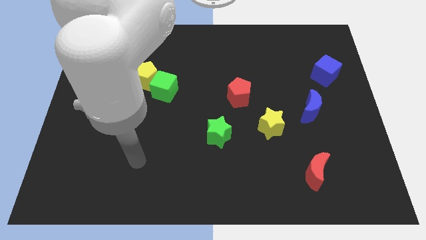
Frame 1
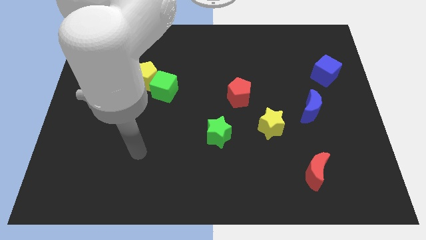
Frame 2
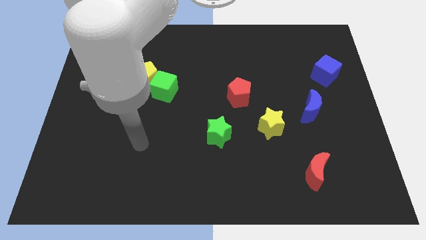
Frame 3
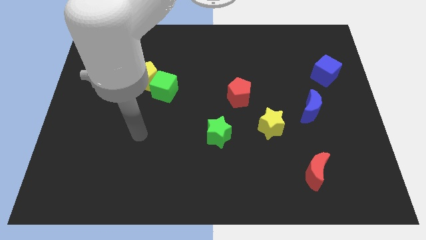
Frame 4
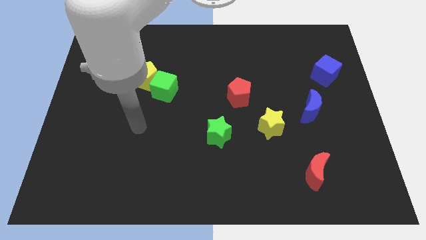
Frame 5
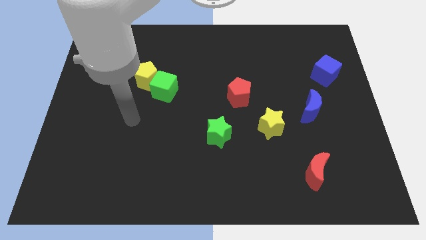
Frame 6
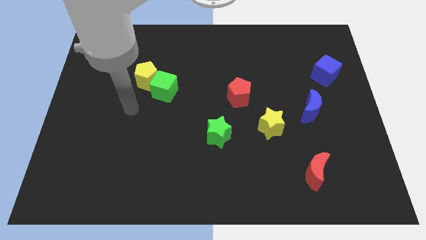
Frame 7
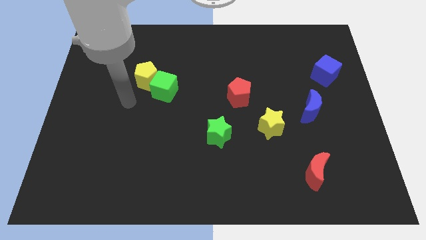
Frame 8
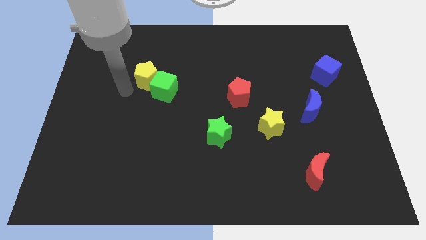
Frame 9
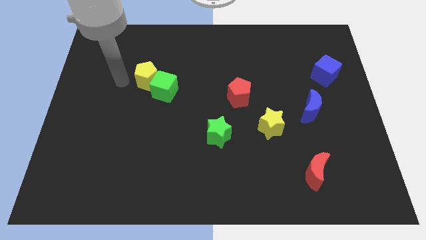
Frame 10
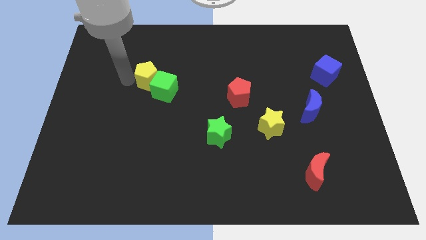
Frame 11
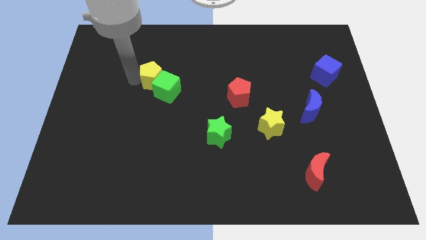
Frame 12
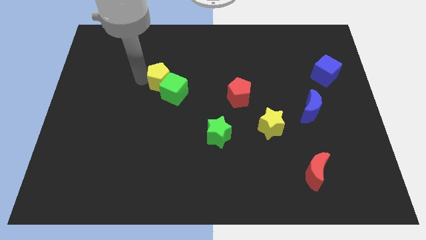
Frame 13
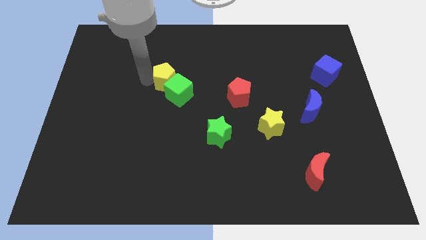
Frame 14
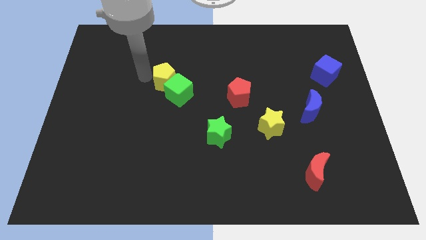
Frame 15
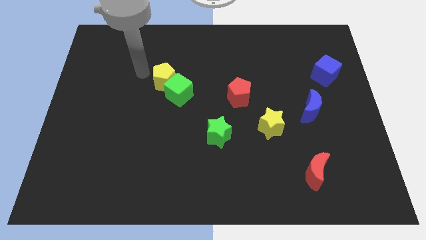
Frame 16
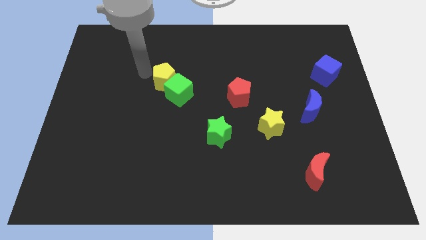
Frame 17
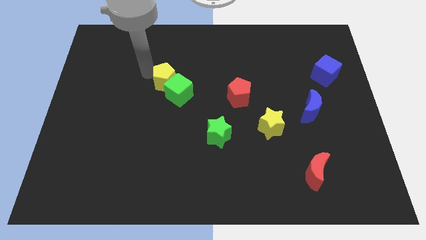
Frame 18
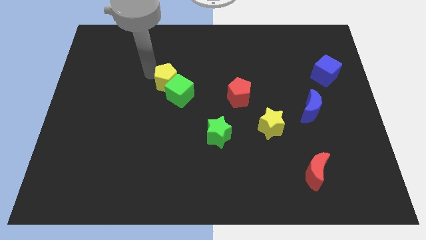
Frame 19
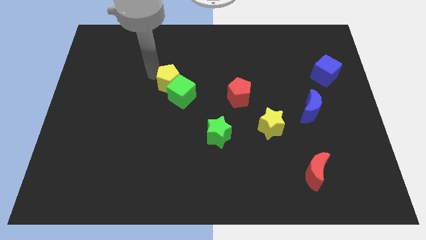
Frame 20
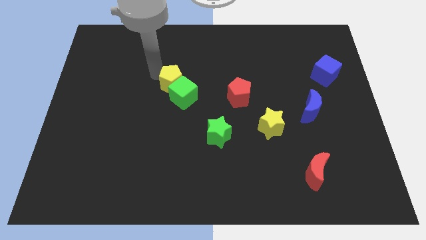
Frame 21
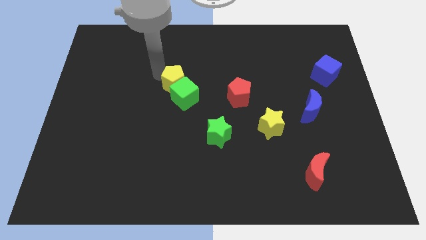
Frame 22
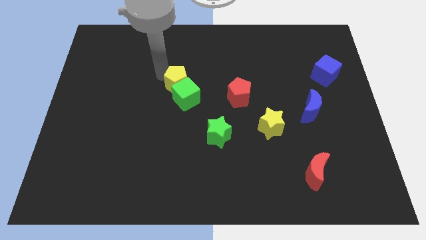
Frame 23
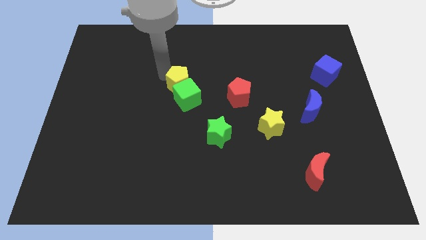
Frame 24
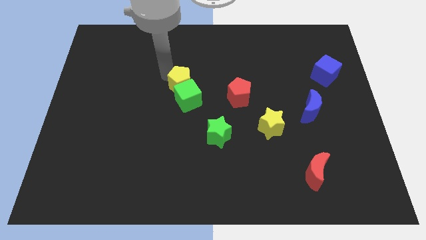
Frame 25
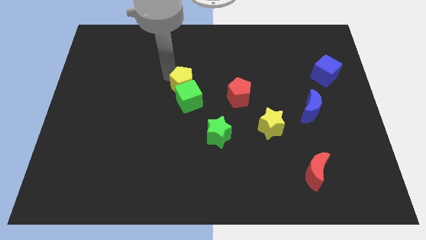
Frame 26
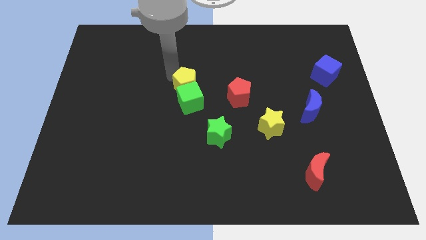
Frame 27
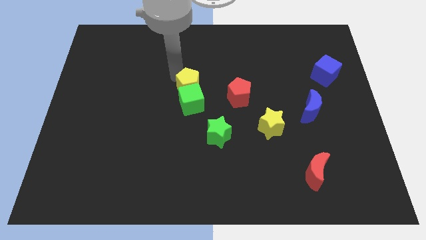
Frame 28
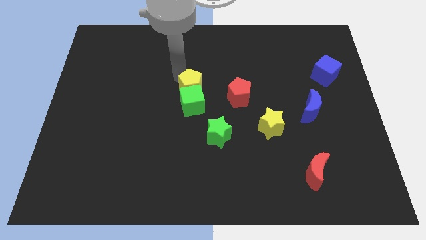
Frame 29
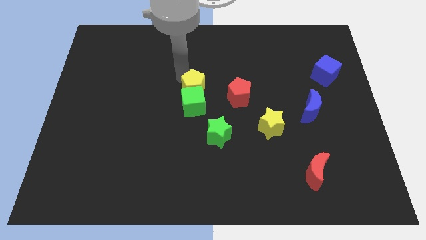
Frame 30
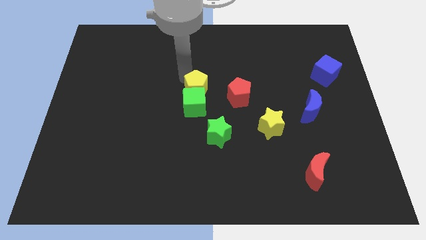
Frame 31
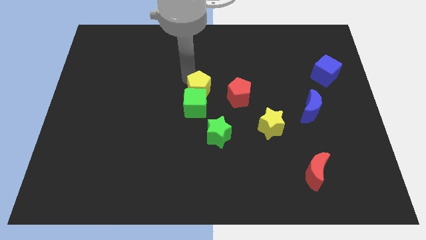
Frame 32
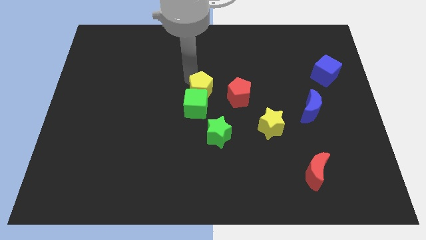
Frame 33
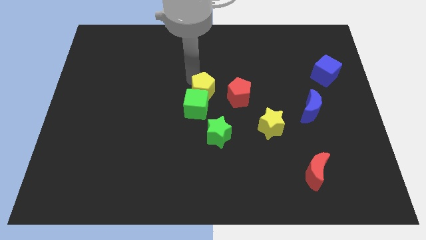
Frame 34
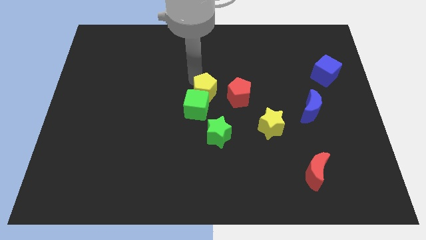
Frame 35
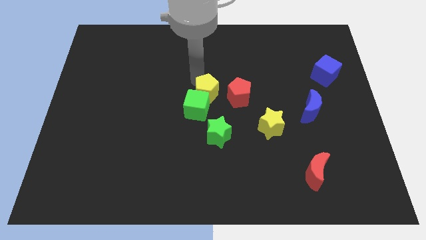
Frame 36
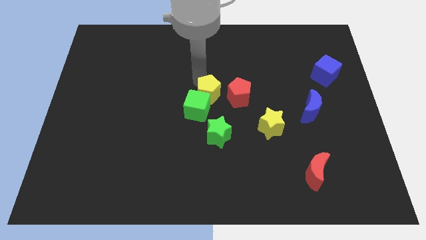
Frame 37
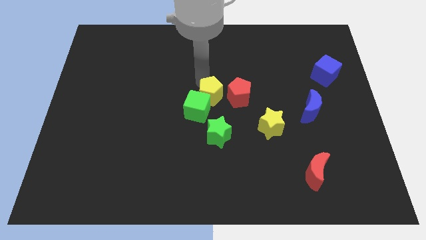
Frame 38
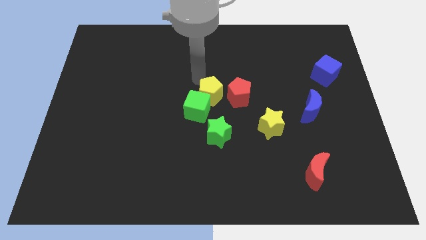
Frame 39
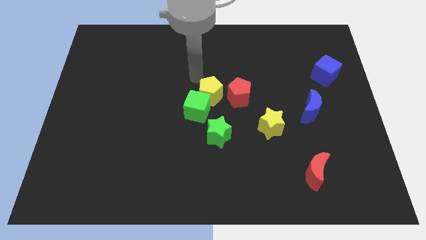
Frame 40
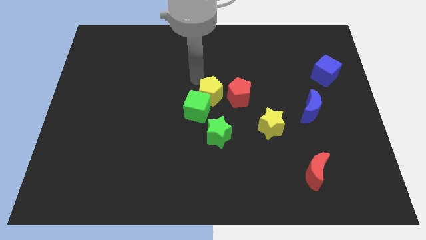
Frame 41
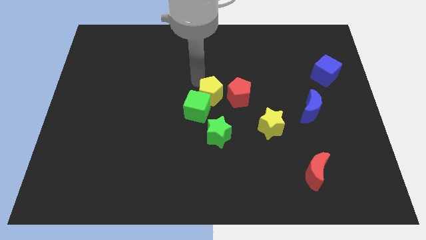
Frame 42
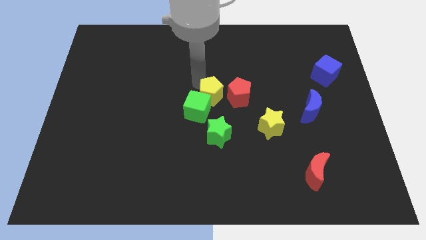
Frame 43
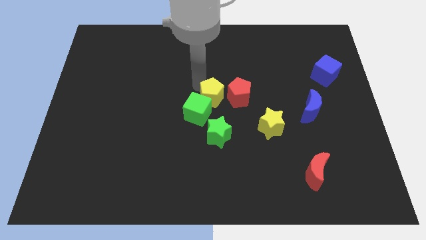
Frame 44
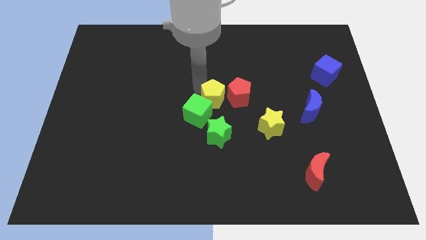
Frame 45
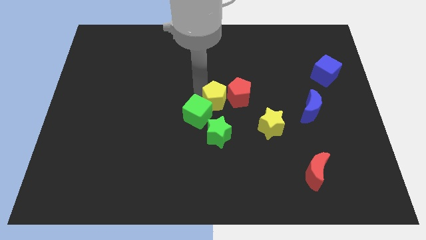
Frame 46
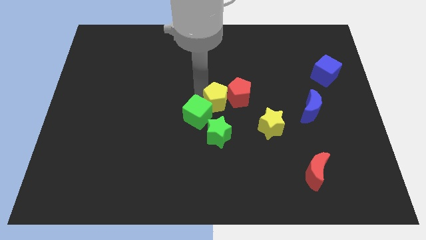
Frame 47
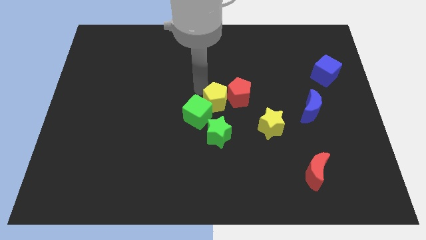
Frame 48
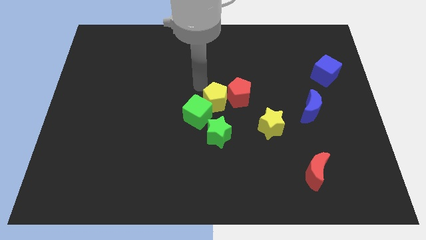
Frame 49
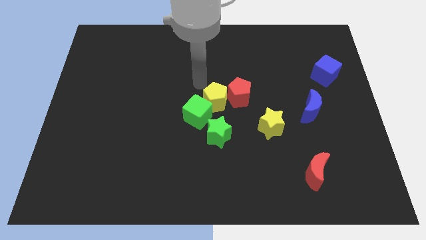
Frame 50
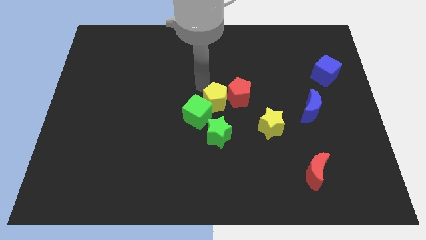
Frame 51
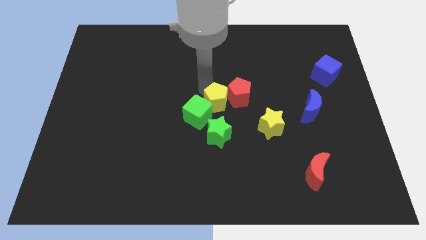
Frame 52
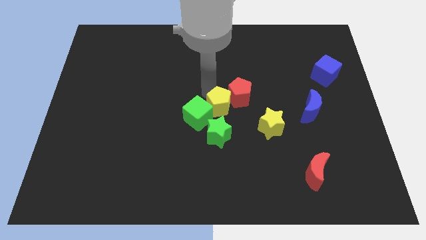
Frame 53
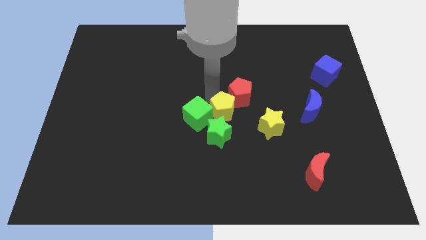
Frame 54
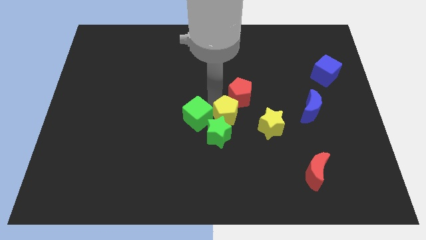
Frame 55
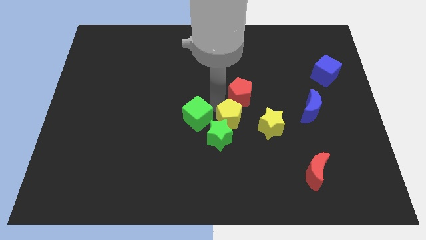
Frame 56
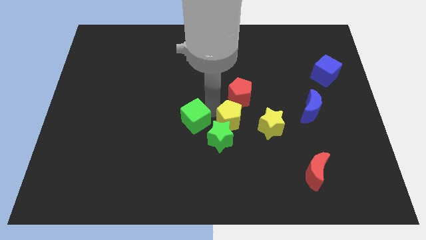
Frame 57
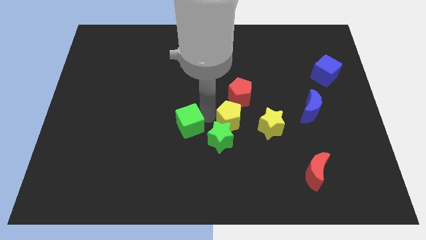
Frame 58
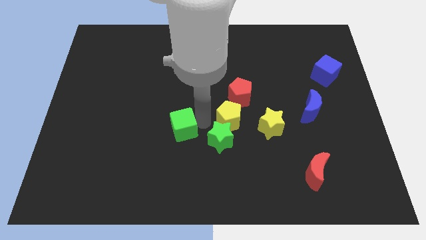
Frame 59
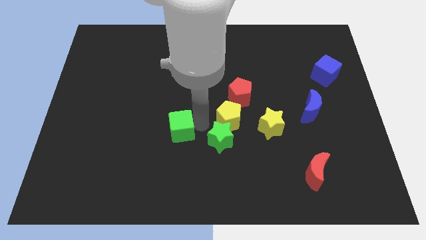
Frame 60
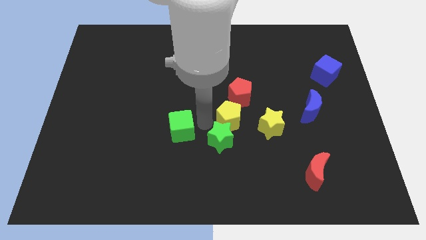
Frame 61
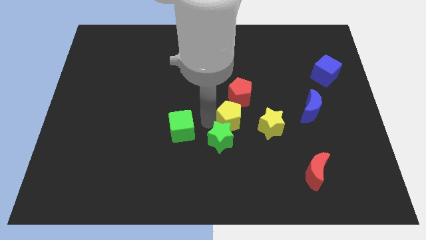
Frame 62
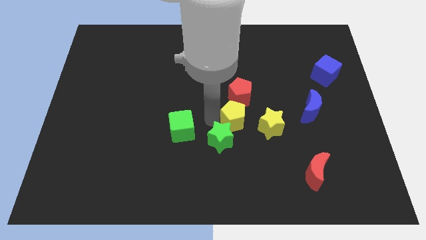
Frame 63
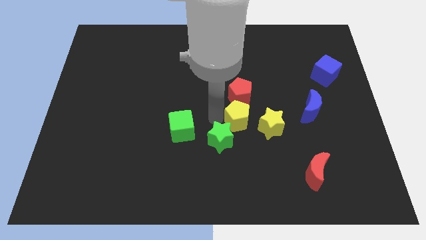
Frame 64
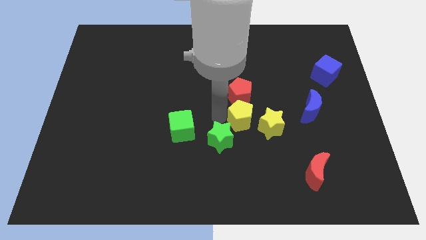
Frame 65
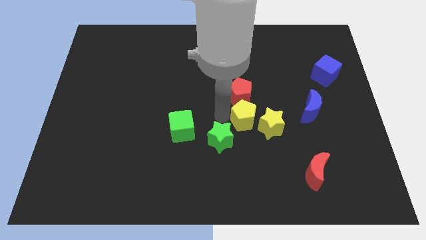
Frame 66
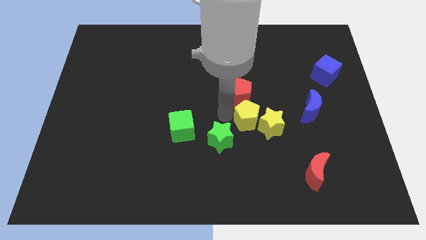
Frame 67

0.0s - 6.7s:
move the yellow pentagon just left of the blue moon

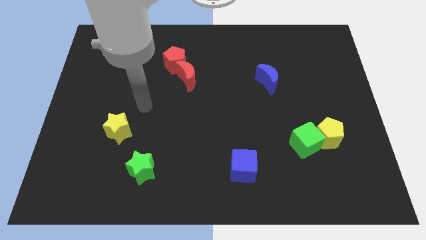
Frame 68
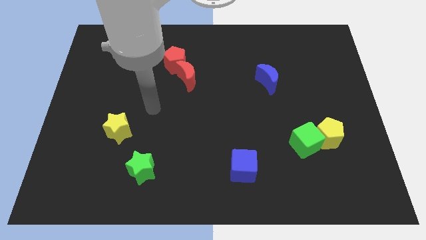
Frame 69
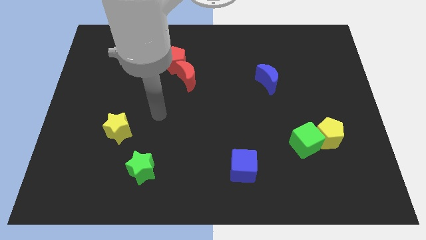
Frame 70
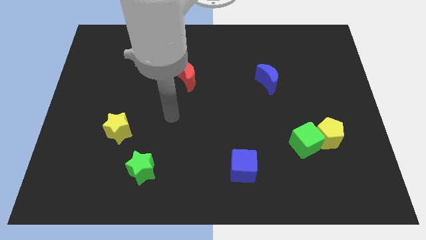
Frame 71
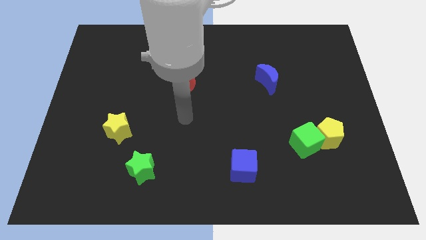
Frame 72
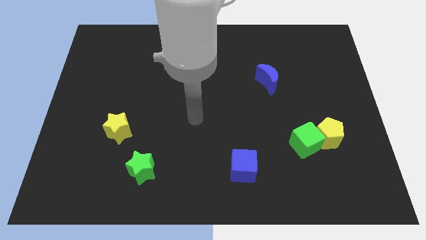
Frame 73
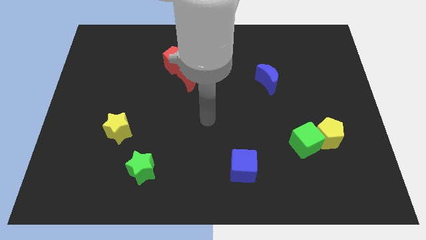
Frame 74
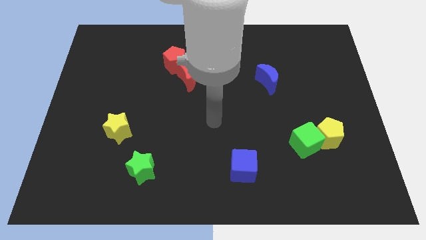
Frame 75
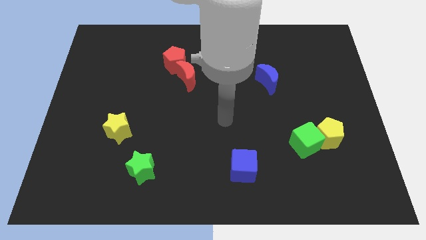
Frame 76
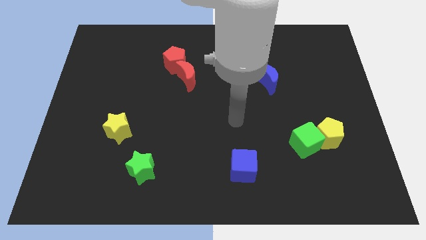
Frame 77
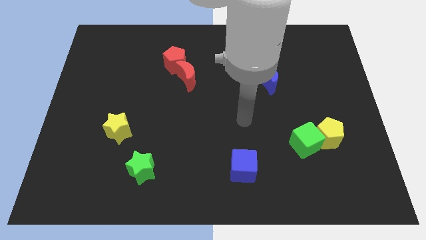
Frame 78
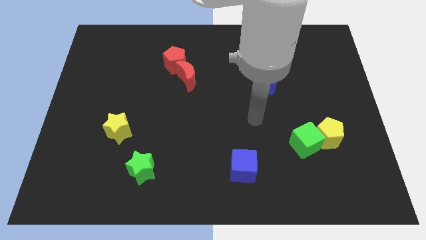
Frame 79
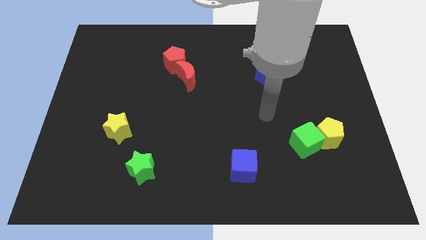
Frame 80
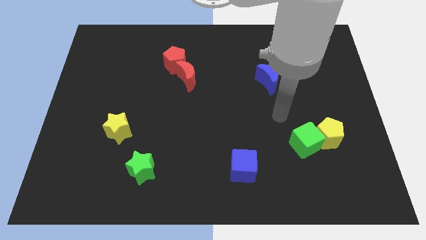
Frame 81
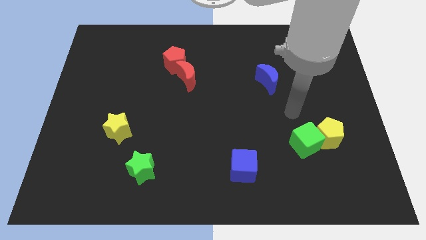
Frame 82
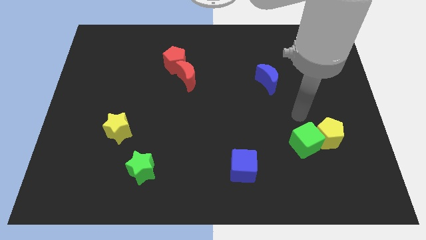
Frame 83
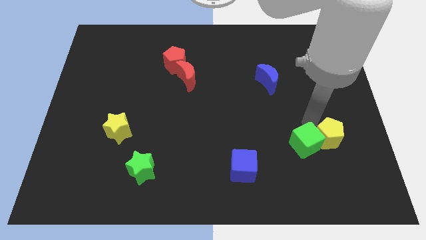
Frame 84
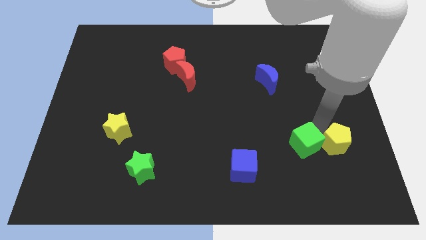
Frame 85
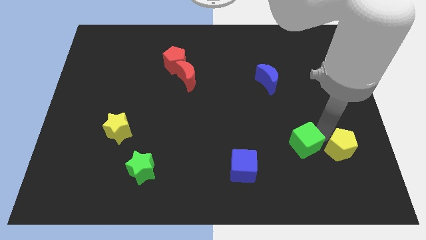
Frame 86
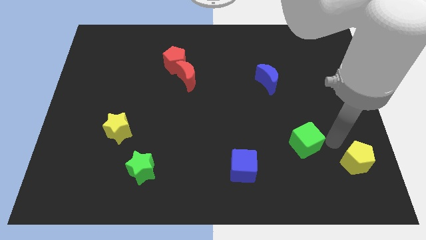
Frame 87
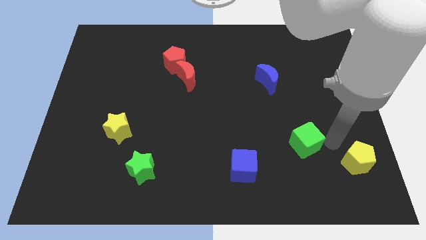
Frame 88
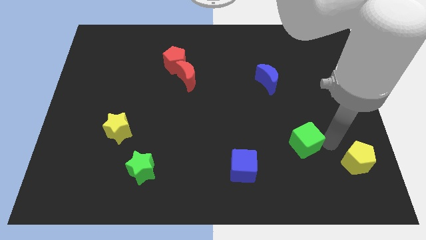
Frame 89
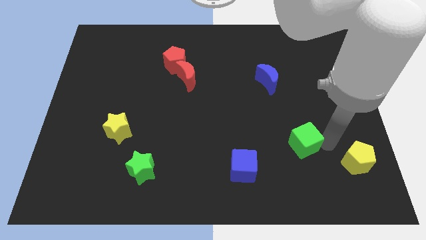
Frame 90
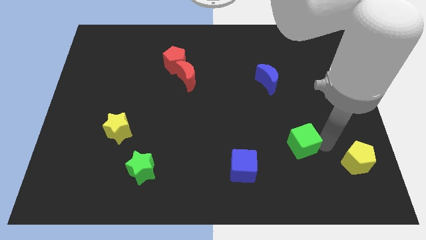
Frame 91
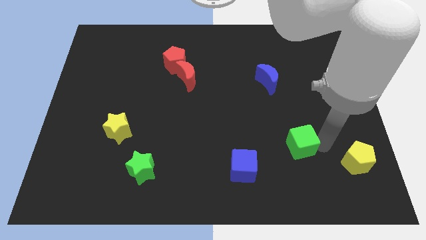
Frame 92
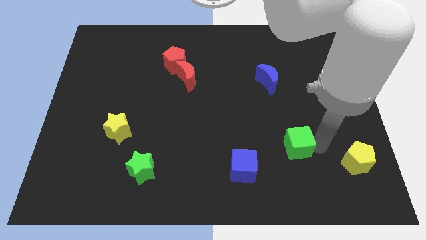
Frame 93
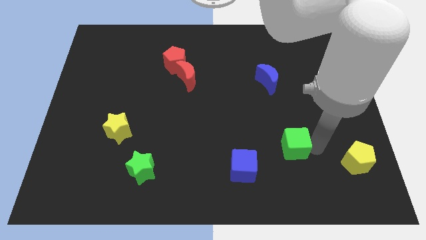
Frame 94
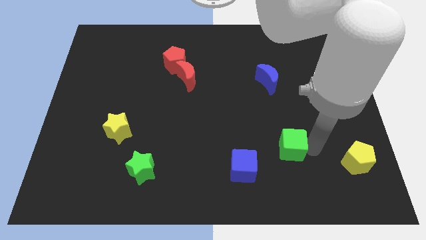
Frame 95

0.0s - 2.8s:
move the green cube to the top right of the blue cube
